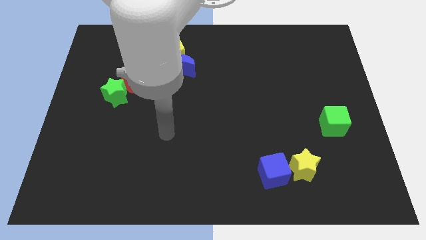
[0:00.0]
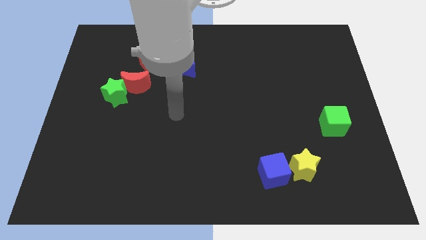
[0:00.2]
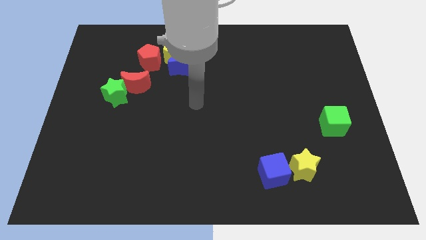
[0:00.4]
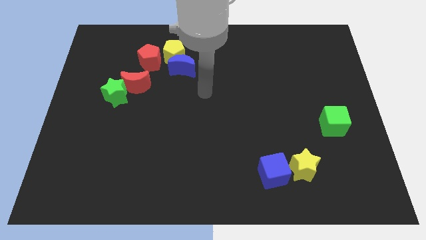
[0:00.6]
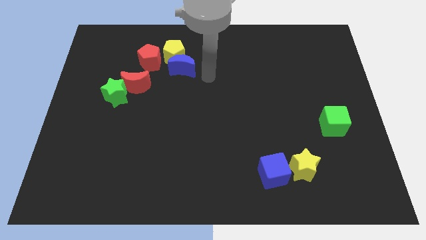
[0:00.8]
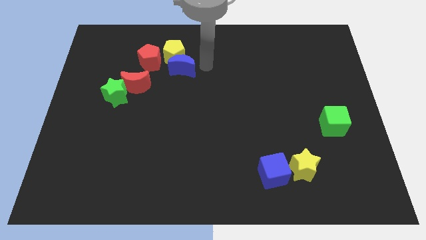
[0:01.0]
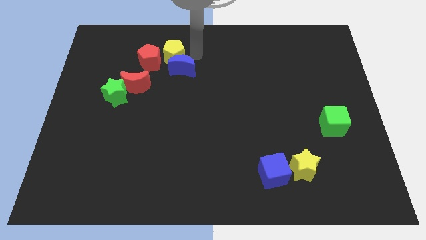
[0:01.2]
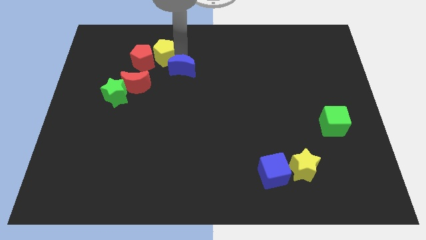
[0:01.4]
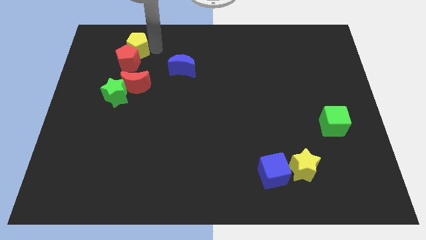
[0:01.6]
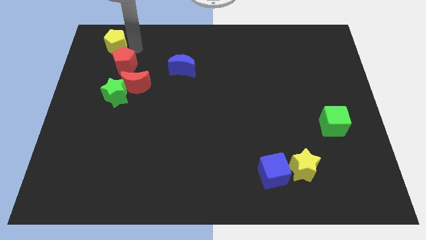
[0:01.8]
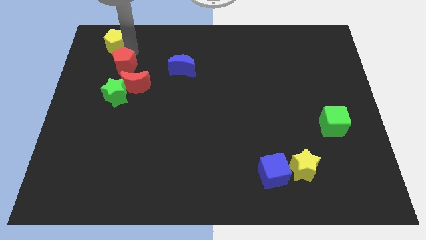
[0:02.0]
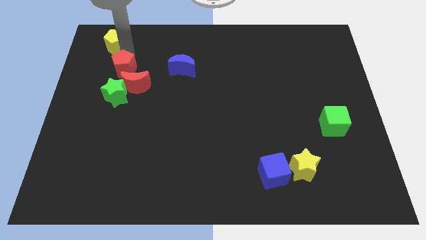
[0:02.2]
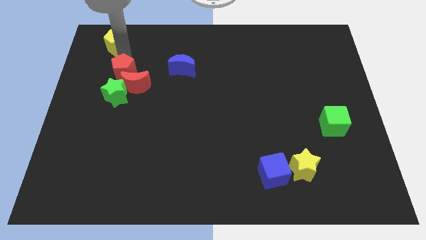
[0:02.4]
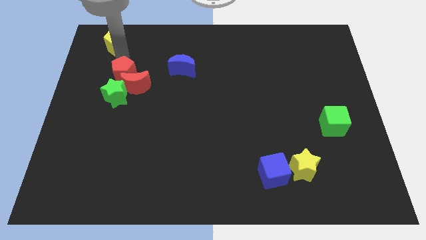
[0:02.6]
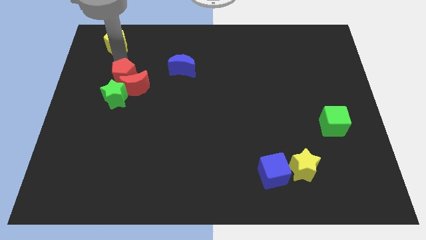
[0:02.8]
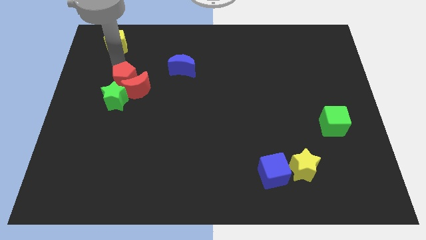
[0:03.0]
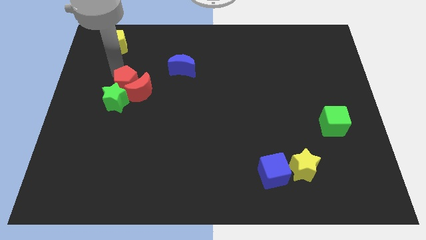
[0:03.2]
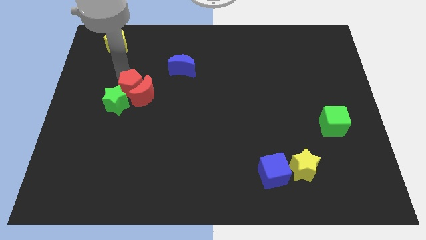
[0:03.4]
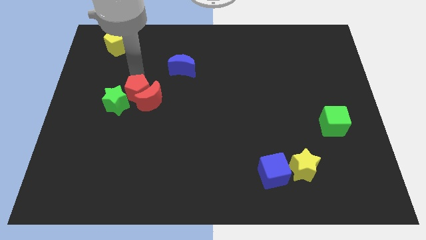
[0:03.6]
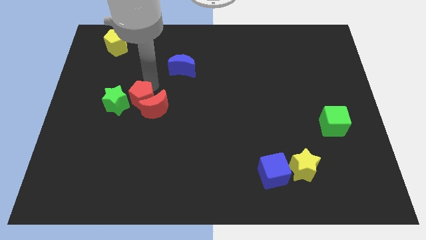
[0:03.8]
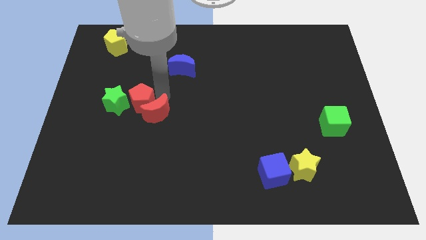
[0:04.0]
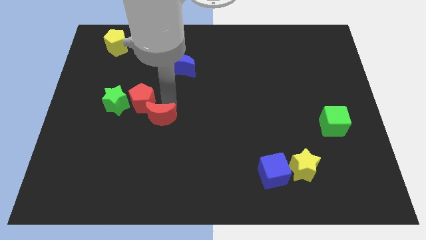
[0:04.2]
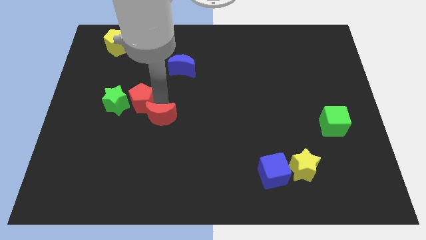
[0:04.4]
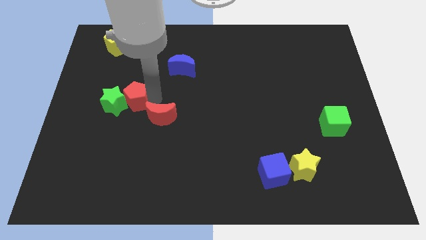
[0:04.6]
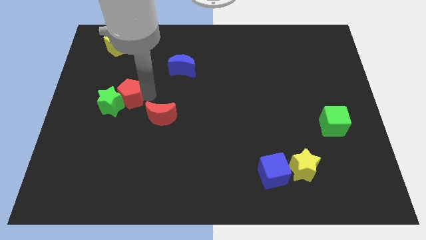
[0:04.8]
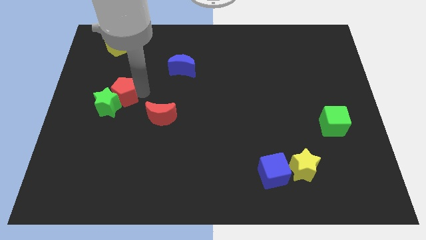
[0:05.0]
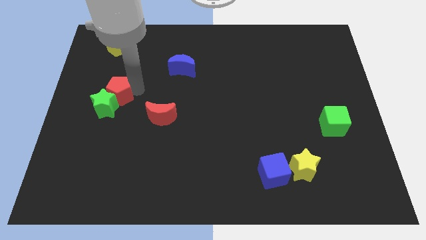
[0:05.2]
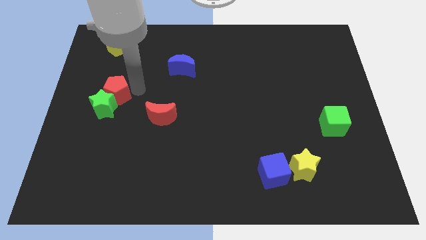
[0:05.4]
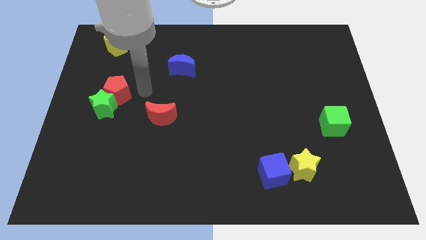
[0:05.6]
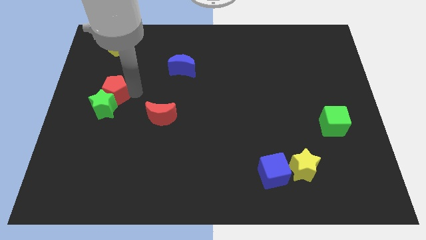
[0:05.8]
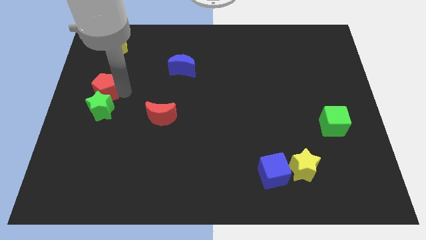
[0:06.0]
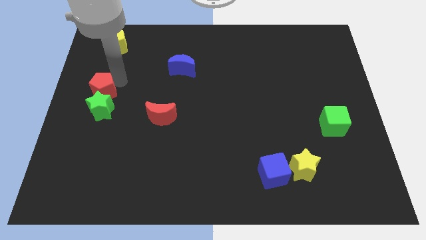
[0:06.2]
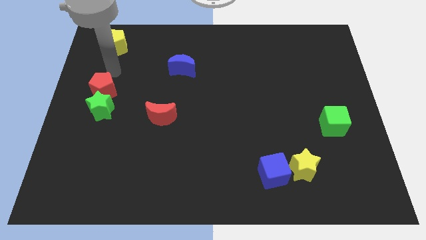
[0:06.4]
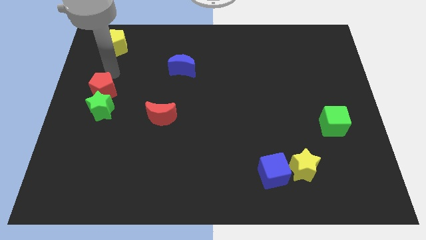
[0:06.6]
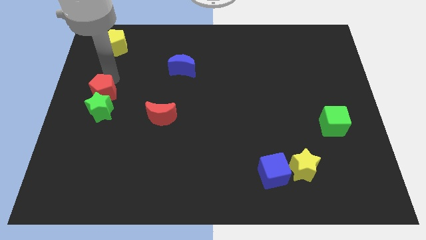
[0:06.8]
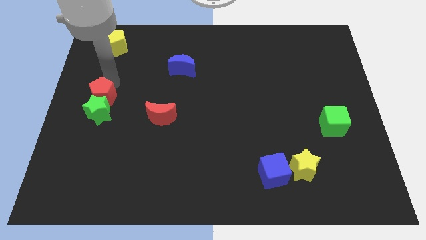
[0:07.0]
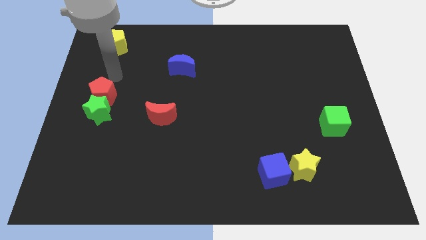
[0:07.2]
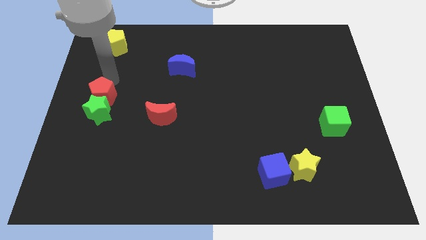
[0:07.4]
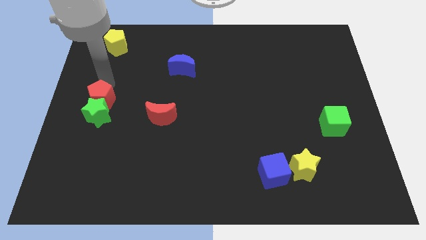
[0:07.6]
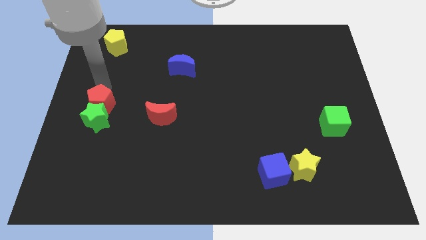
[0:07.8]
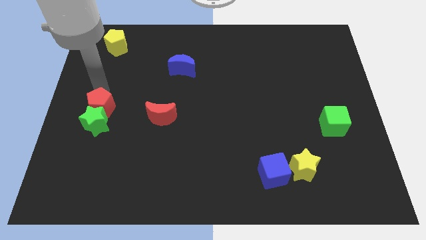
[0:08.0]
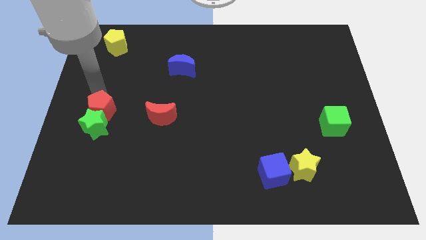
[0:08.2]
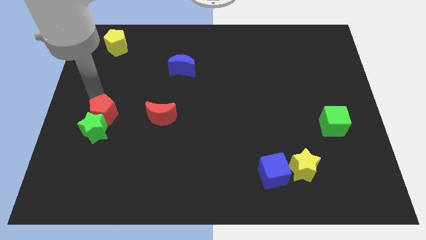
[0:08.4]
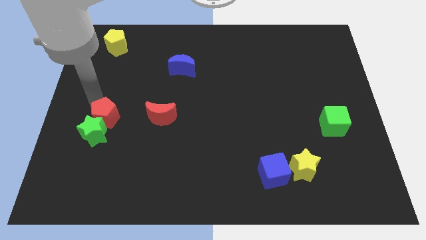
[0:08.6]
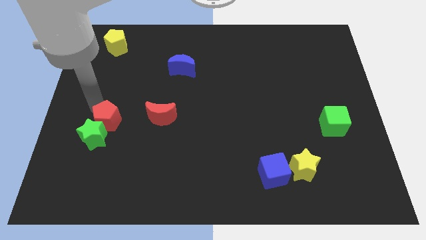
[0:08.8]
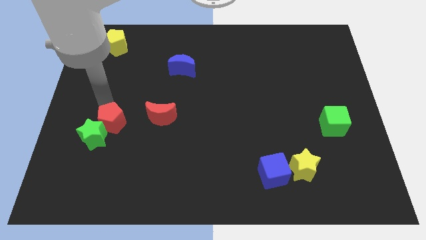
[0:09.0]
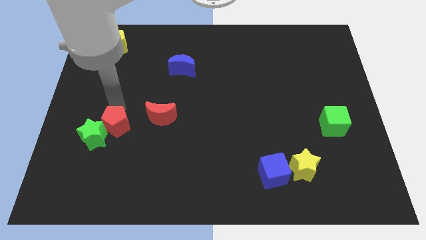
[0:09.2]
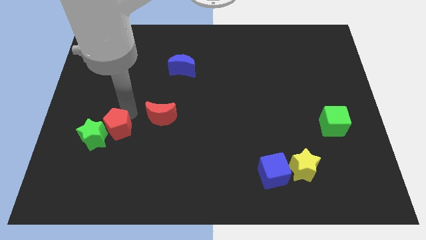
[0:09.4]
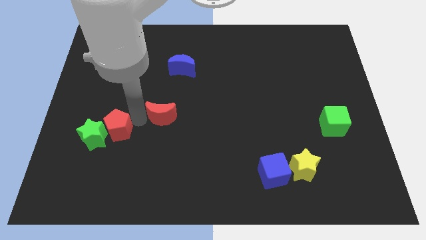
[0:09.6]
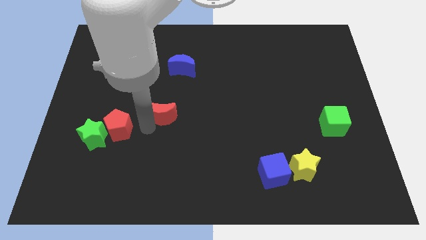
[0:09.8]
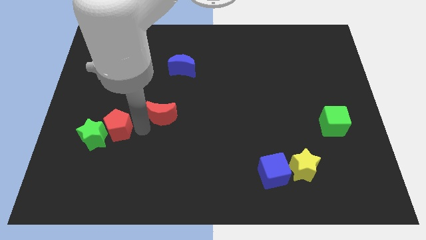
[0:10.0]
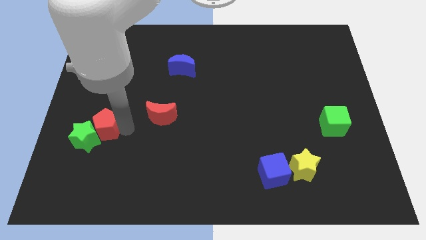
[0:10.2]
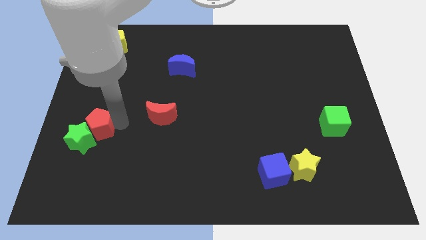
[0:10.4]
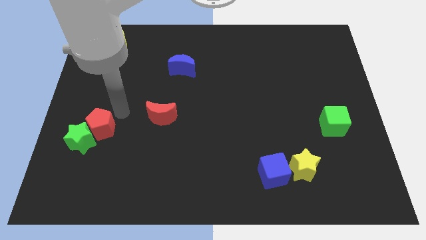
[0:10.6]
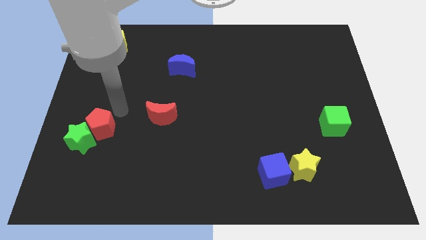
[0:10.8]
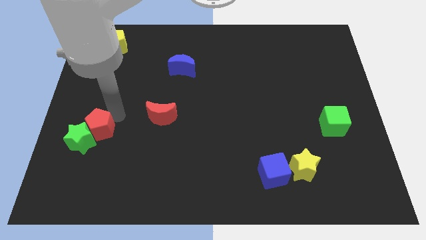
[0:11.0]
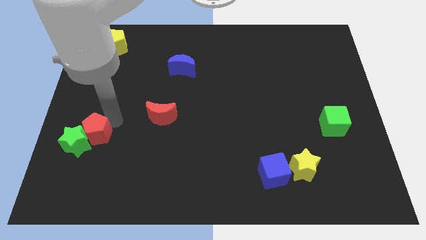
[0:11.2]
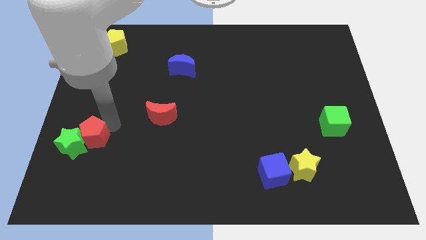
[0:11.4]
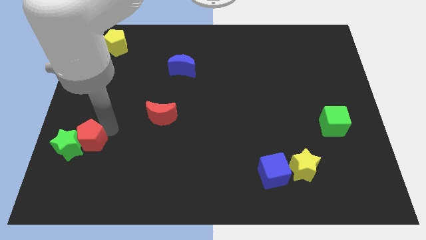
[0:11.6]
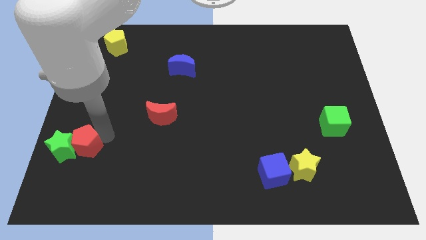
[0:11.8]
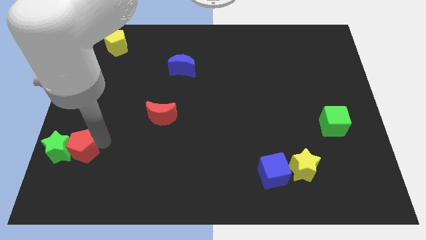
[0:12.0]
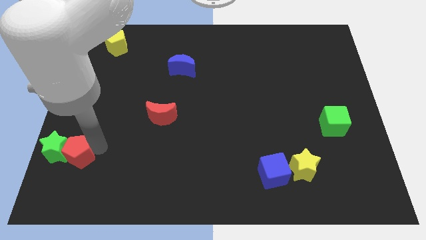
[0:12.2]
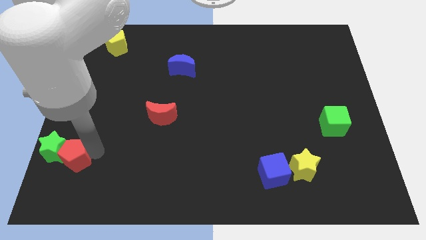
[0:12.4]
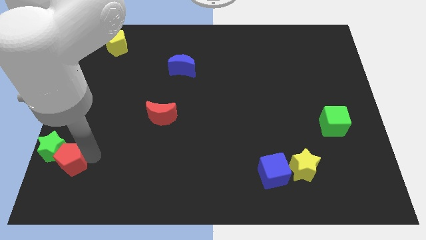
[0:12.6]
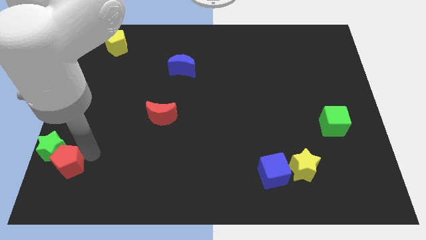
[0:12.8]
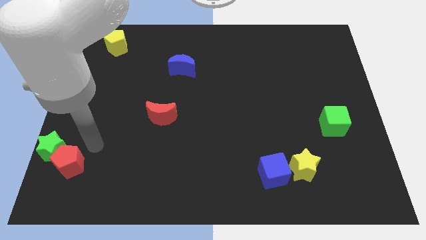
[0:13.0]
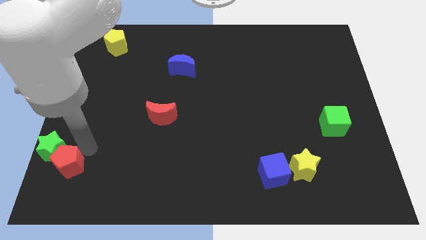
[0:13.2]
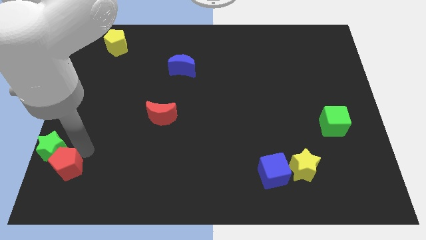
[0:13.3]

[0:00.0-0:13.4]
move the red pentagon to the bottom left of the board
